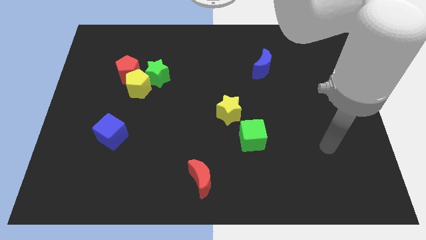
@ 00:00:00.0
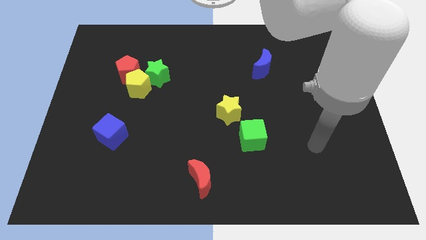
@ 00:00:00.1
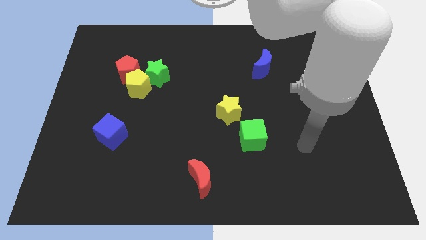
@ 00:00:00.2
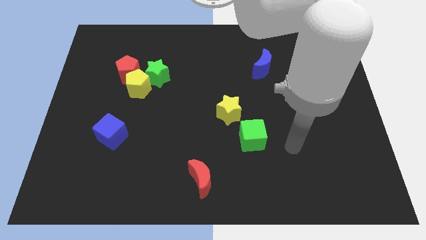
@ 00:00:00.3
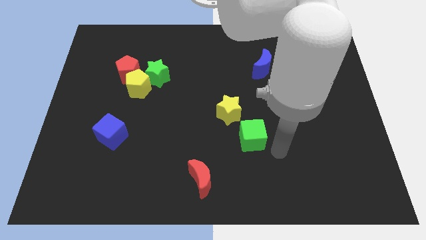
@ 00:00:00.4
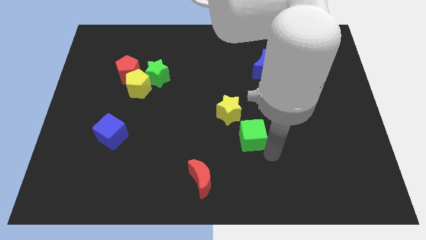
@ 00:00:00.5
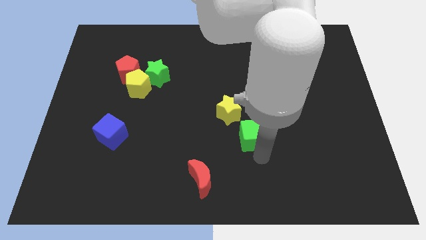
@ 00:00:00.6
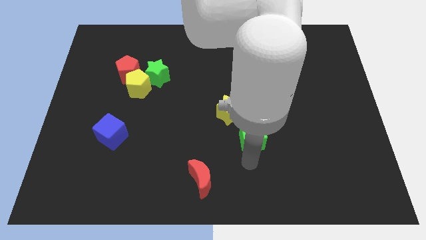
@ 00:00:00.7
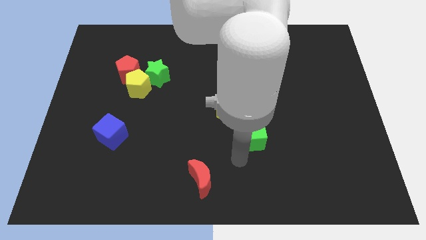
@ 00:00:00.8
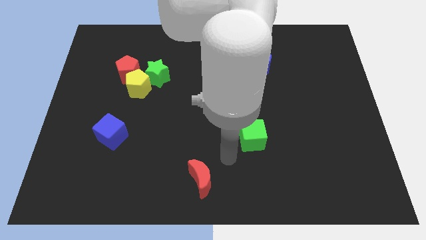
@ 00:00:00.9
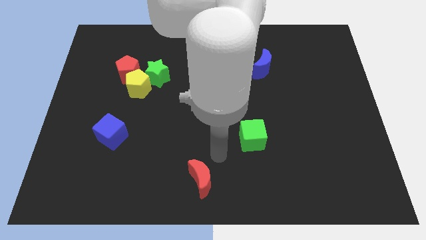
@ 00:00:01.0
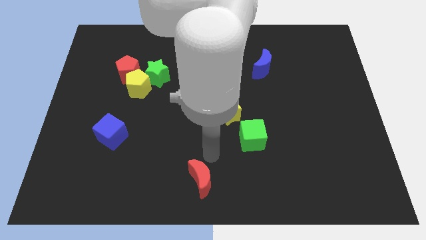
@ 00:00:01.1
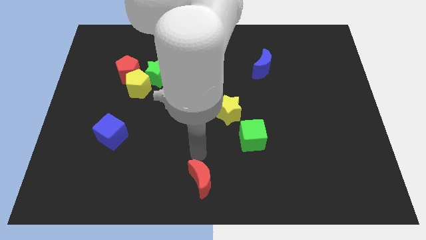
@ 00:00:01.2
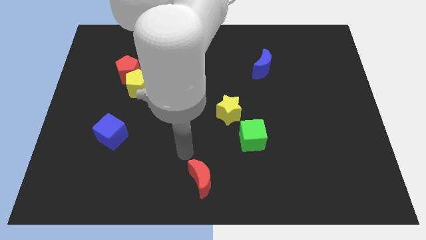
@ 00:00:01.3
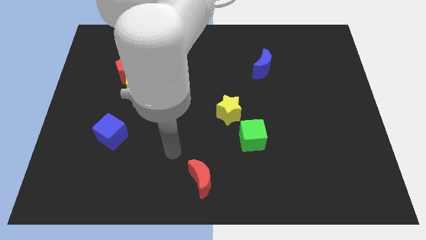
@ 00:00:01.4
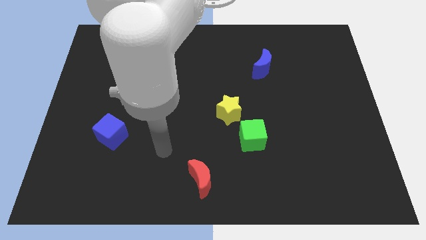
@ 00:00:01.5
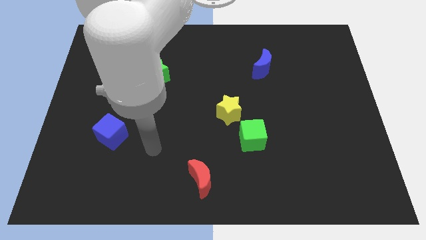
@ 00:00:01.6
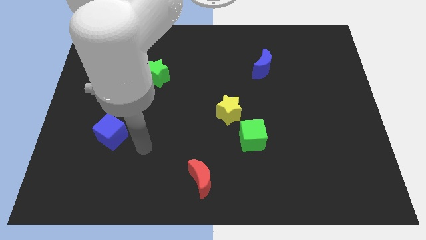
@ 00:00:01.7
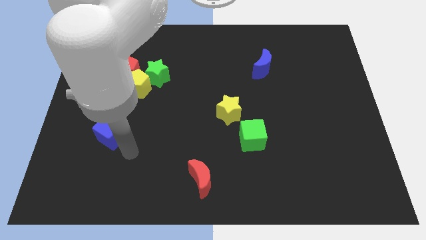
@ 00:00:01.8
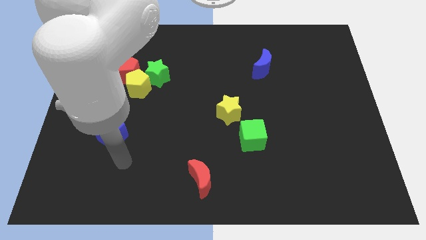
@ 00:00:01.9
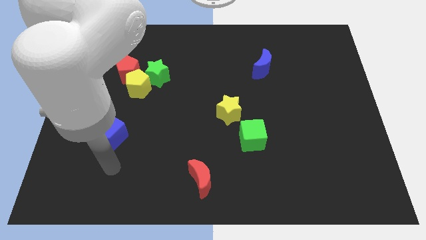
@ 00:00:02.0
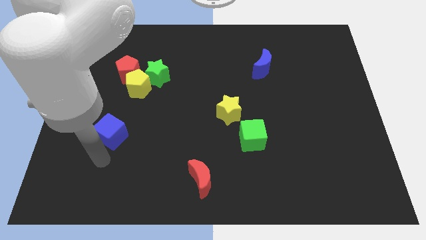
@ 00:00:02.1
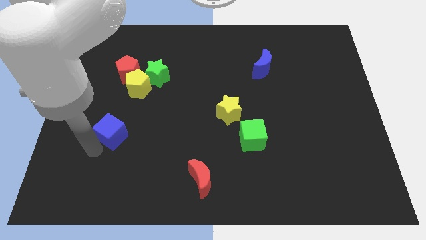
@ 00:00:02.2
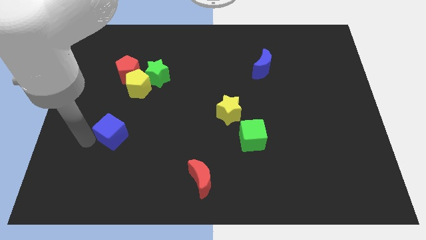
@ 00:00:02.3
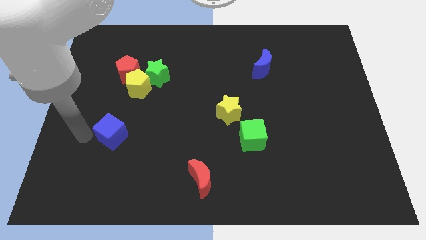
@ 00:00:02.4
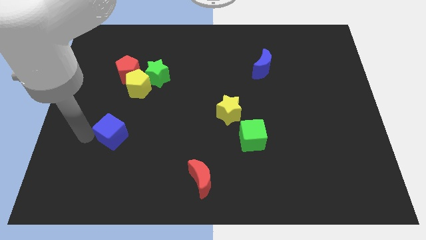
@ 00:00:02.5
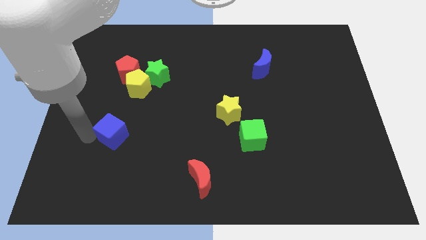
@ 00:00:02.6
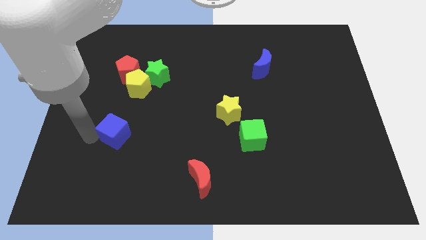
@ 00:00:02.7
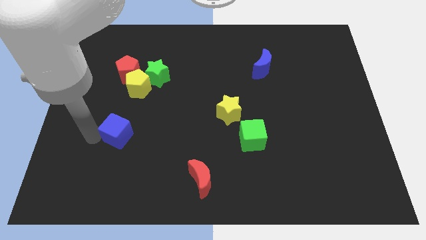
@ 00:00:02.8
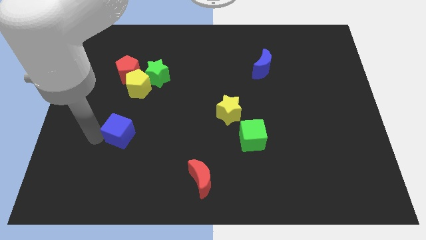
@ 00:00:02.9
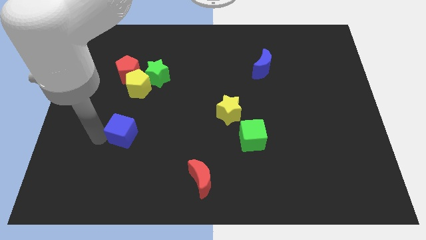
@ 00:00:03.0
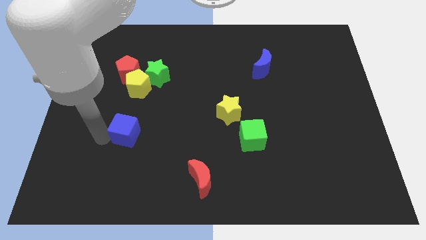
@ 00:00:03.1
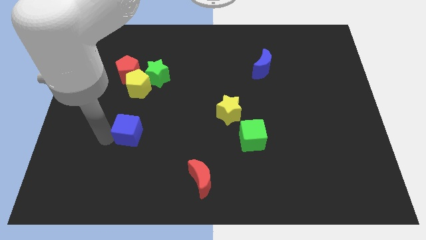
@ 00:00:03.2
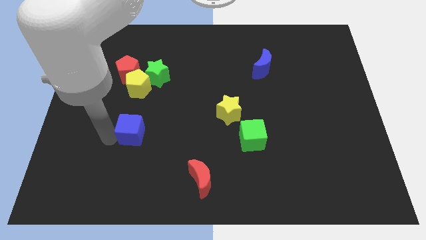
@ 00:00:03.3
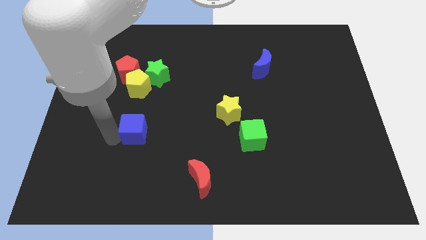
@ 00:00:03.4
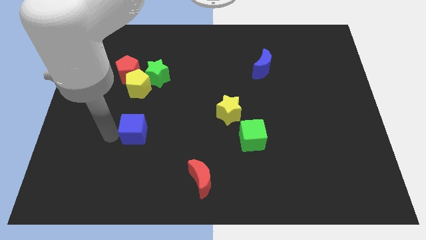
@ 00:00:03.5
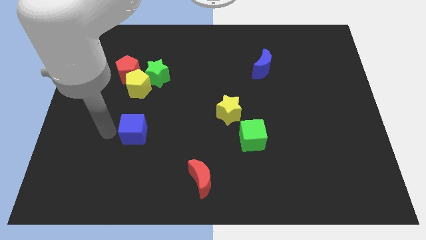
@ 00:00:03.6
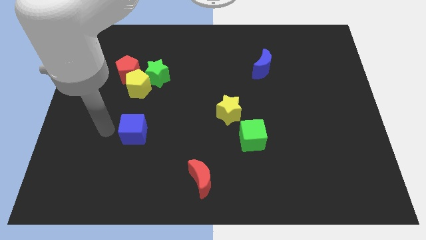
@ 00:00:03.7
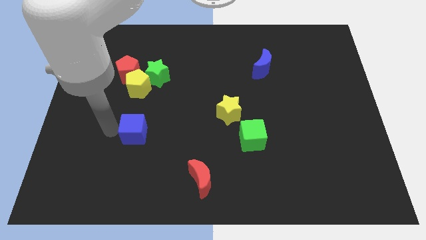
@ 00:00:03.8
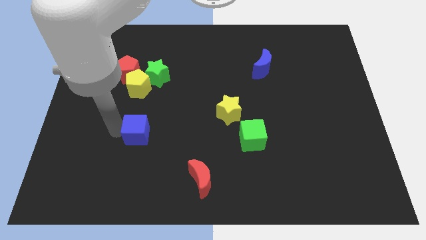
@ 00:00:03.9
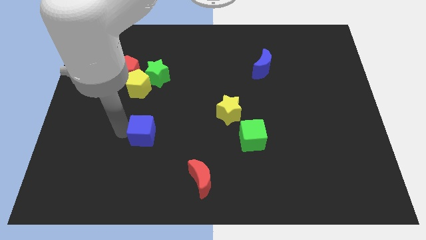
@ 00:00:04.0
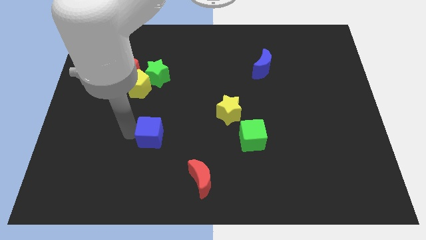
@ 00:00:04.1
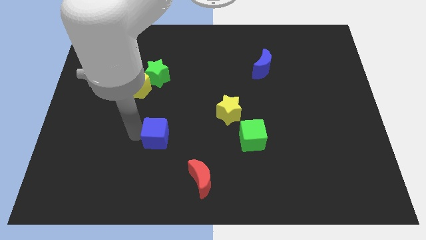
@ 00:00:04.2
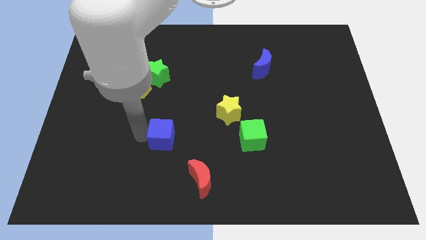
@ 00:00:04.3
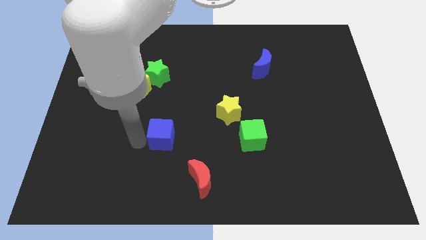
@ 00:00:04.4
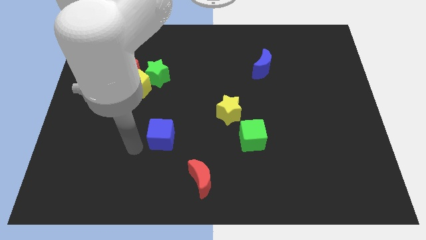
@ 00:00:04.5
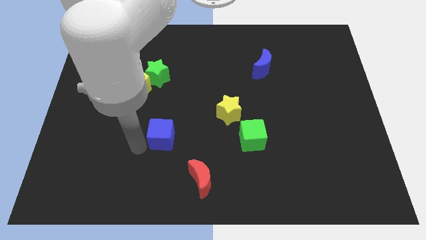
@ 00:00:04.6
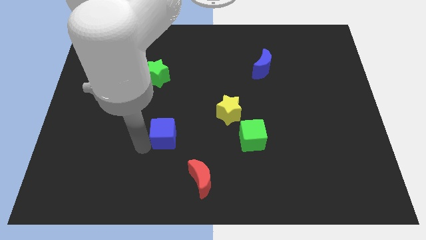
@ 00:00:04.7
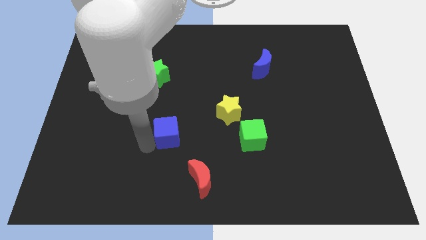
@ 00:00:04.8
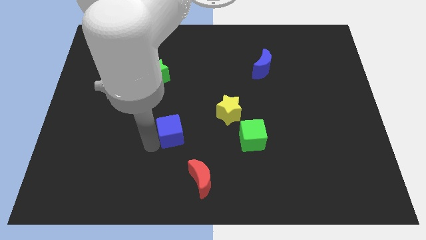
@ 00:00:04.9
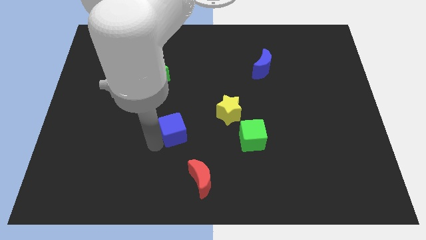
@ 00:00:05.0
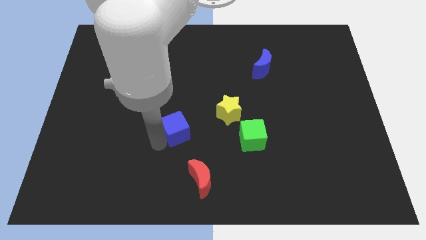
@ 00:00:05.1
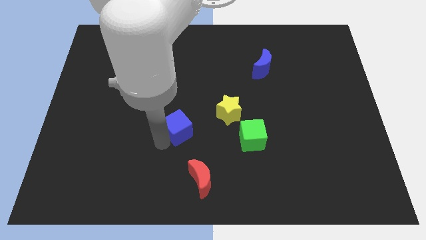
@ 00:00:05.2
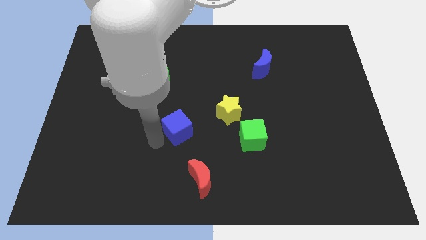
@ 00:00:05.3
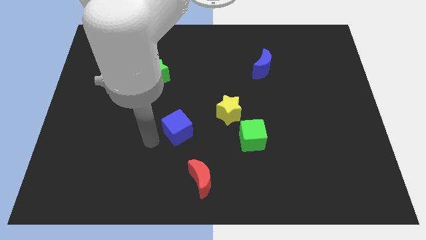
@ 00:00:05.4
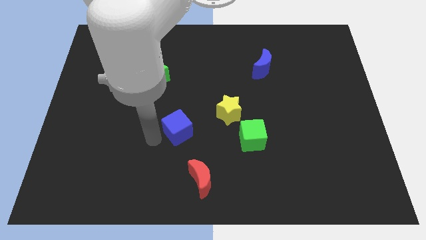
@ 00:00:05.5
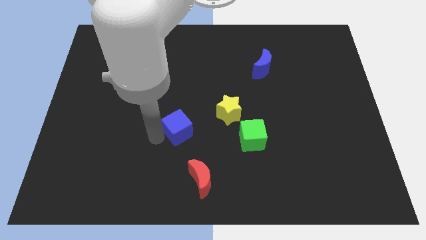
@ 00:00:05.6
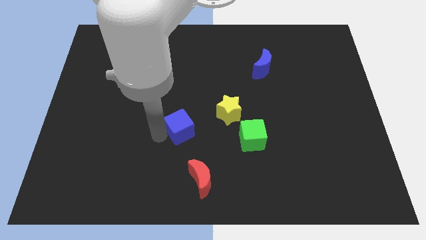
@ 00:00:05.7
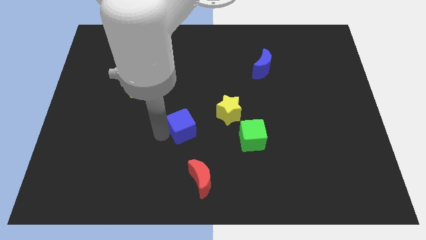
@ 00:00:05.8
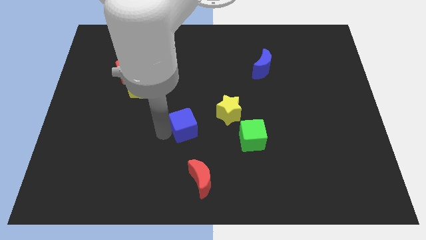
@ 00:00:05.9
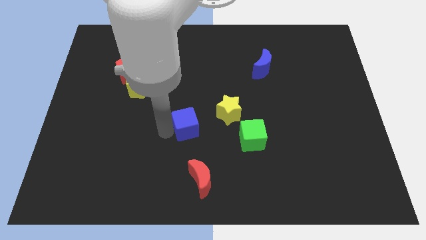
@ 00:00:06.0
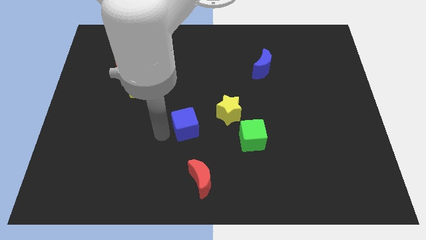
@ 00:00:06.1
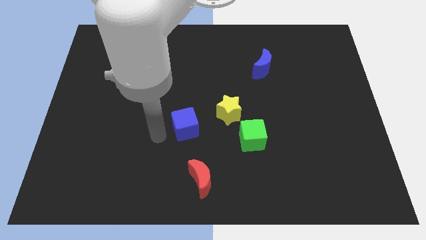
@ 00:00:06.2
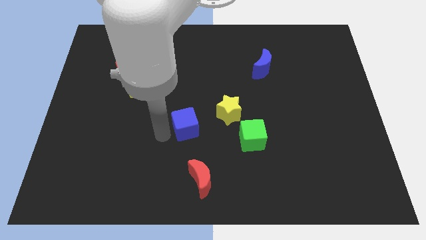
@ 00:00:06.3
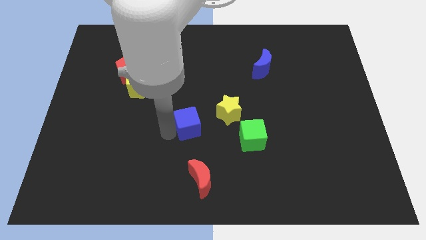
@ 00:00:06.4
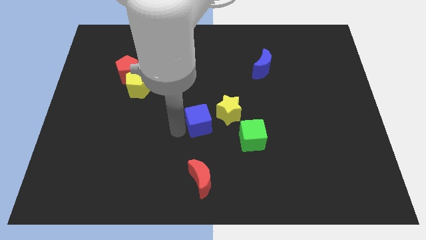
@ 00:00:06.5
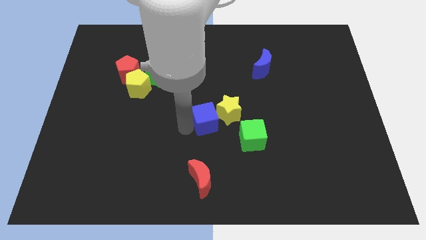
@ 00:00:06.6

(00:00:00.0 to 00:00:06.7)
slide the blue cube towards the yellow star

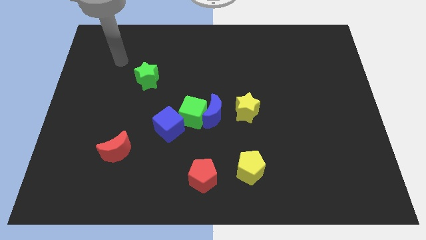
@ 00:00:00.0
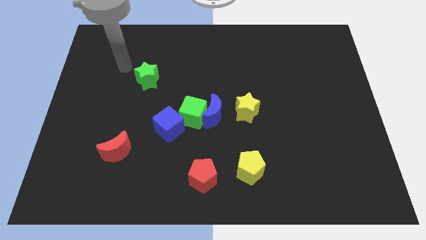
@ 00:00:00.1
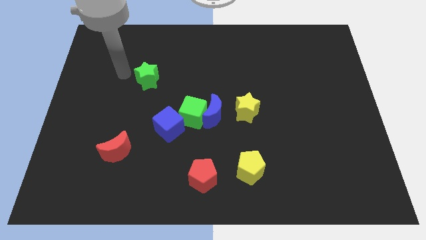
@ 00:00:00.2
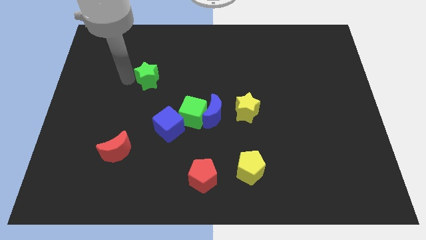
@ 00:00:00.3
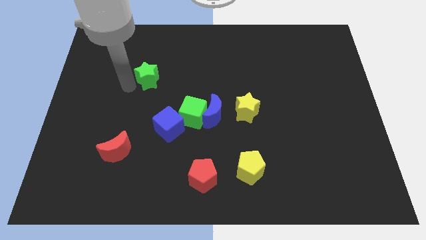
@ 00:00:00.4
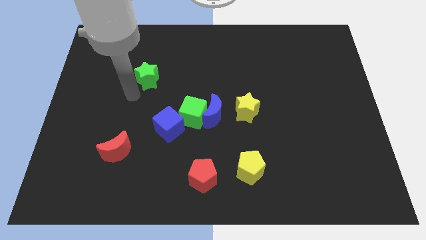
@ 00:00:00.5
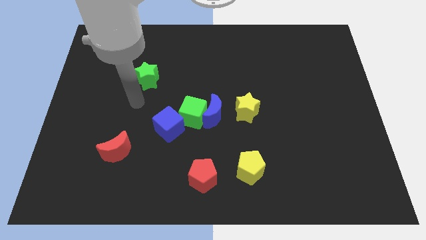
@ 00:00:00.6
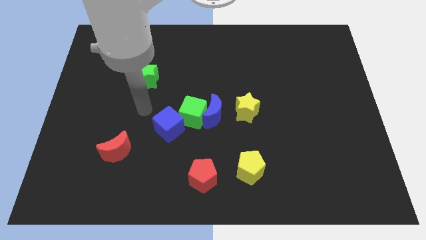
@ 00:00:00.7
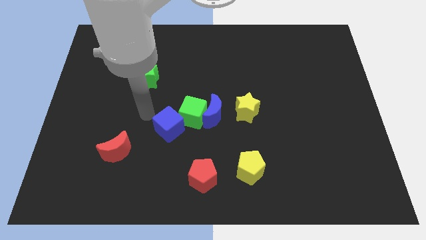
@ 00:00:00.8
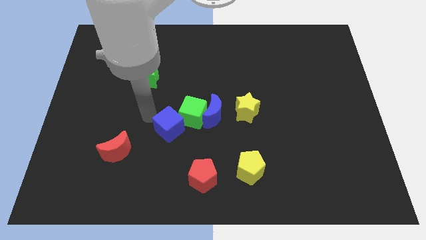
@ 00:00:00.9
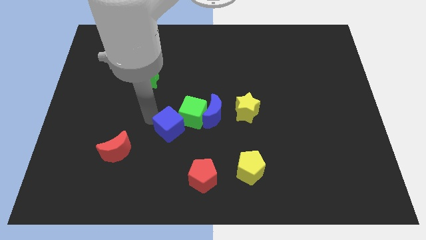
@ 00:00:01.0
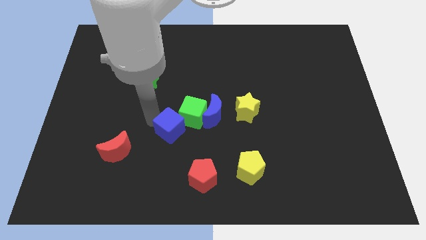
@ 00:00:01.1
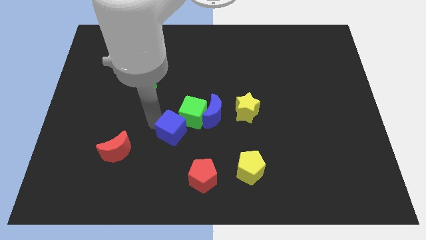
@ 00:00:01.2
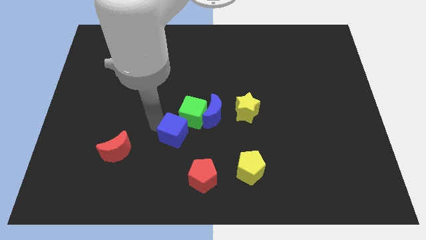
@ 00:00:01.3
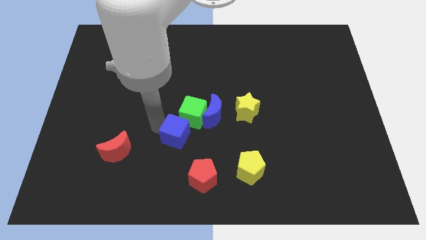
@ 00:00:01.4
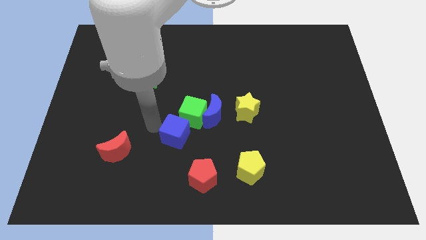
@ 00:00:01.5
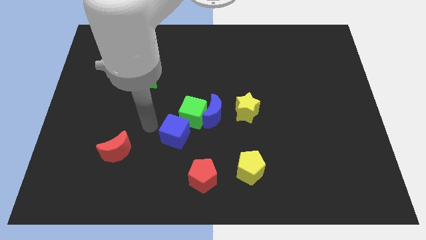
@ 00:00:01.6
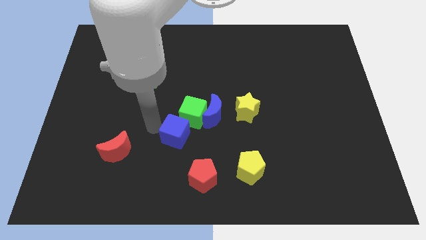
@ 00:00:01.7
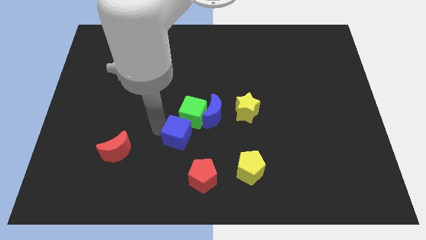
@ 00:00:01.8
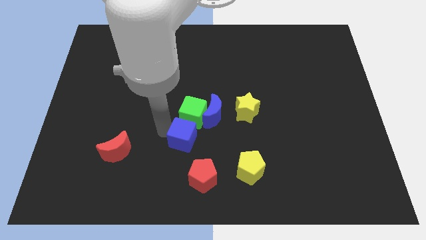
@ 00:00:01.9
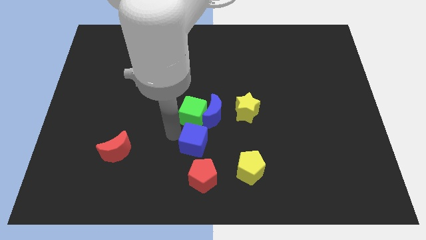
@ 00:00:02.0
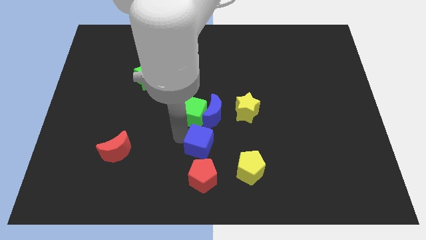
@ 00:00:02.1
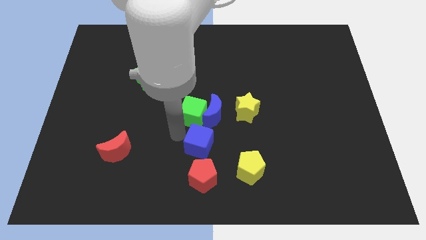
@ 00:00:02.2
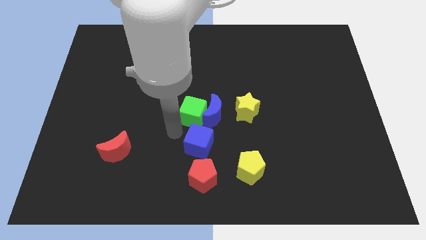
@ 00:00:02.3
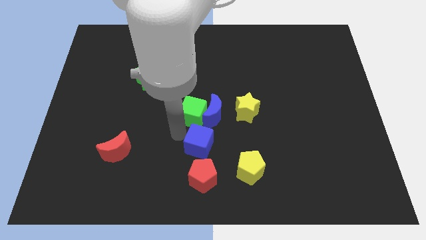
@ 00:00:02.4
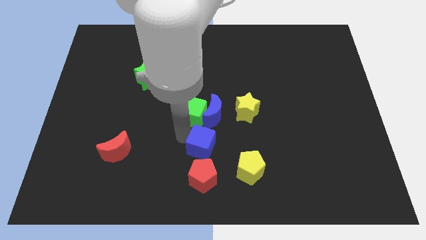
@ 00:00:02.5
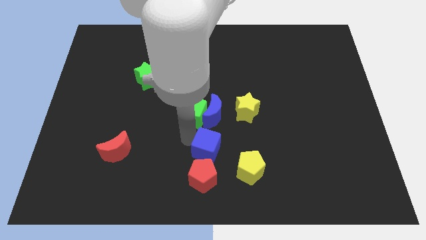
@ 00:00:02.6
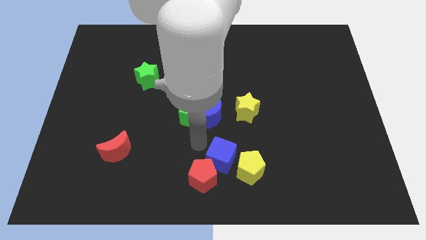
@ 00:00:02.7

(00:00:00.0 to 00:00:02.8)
put the blue cube next to the yellow pentagon
